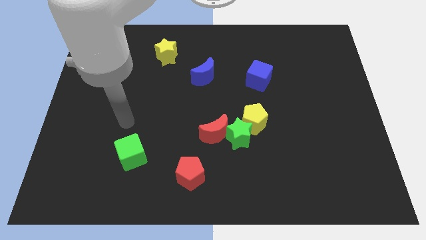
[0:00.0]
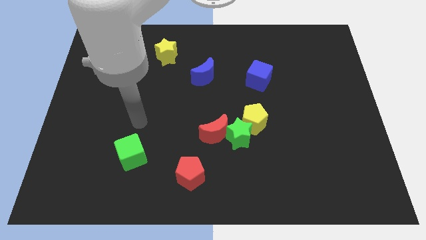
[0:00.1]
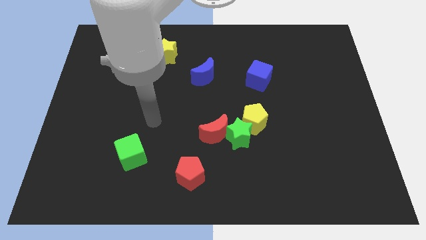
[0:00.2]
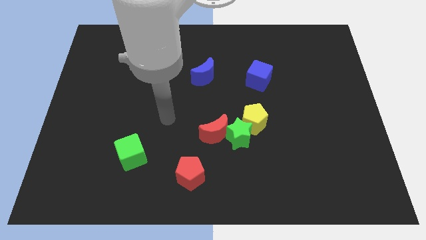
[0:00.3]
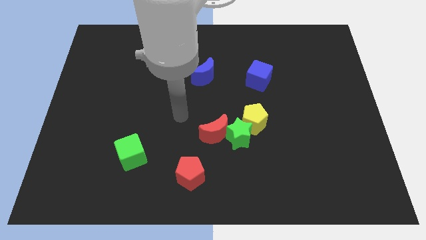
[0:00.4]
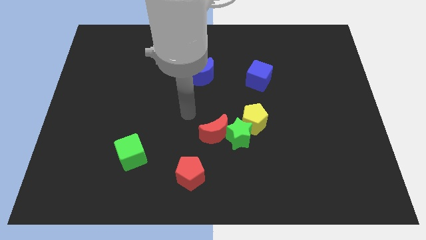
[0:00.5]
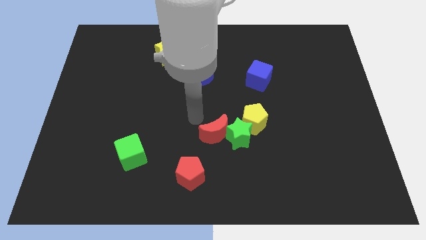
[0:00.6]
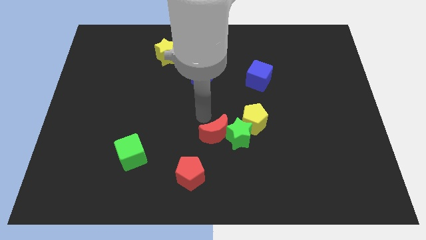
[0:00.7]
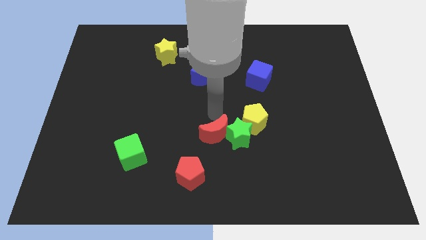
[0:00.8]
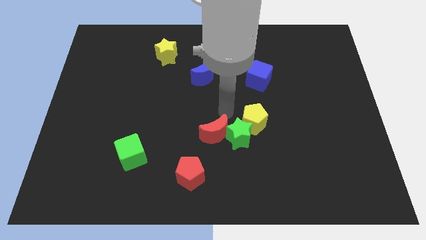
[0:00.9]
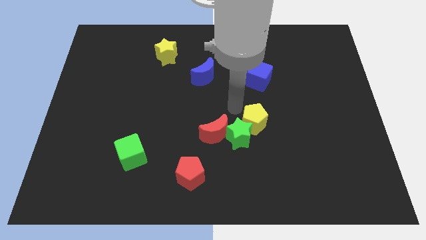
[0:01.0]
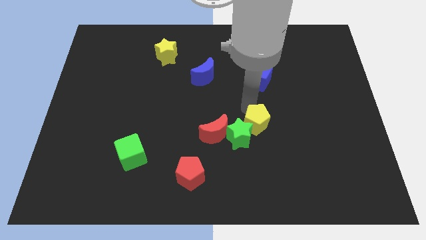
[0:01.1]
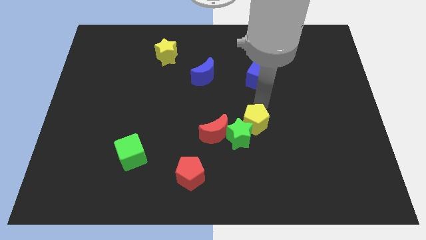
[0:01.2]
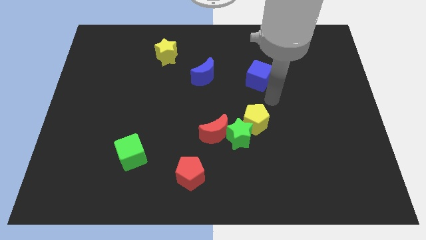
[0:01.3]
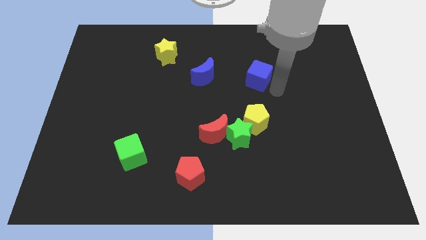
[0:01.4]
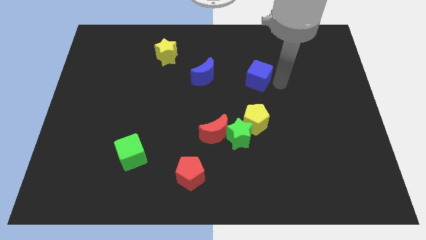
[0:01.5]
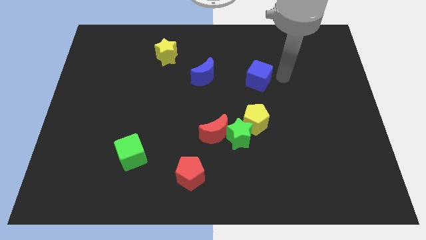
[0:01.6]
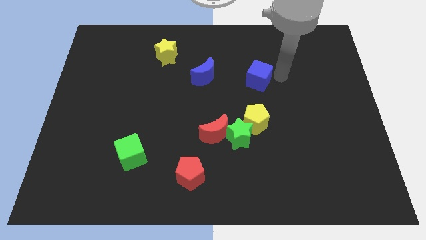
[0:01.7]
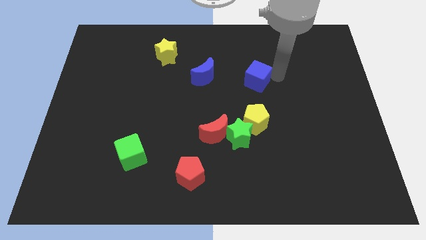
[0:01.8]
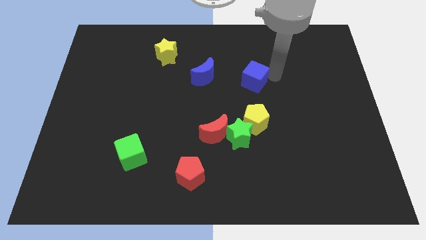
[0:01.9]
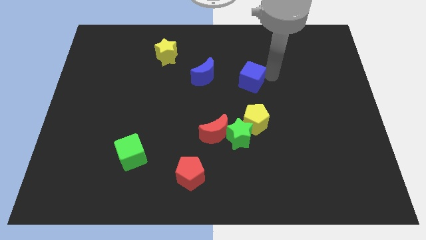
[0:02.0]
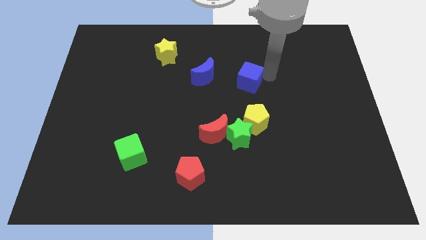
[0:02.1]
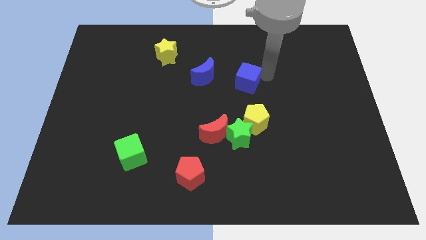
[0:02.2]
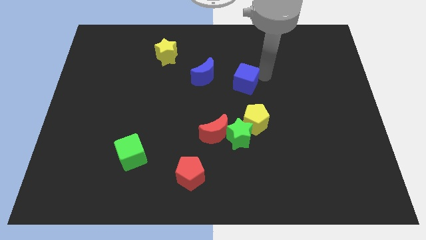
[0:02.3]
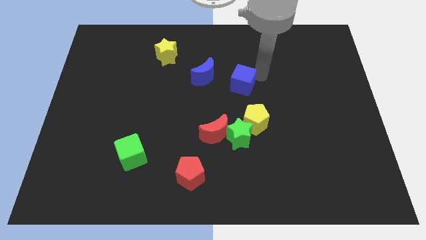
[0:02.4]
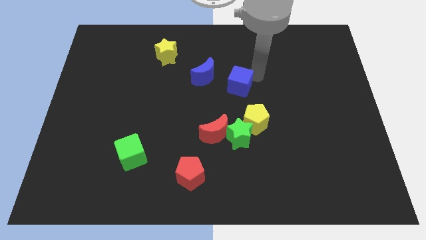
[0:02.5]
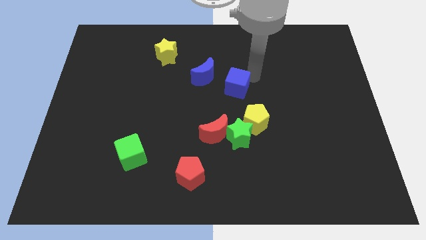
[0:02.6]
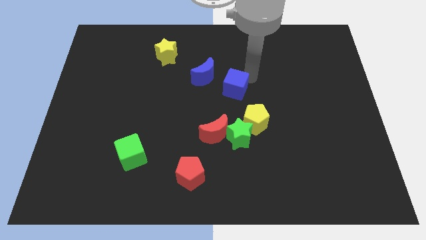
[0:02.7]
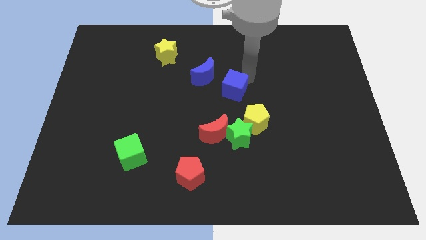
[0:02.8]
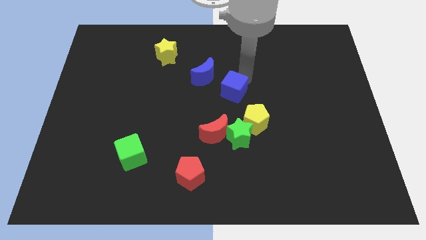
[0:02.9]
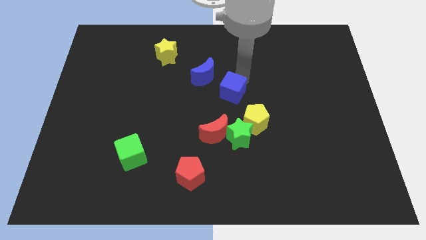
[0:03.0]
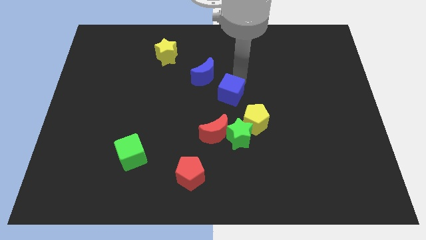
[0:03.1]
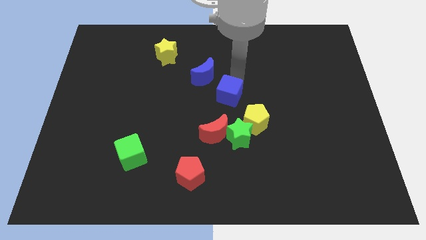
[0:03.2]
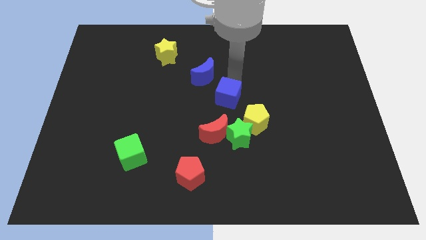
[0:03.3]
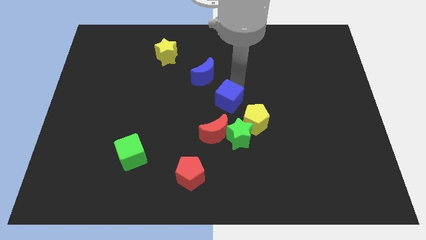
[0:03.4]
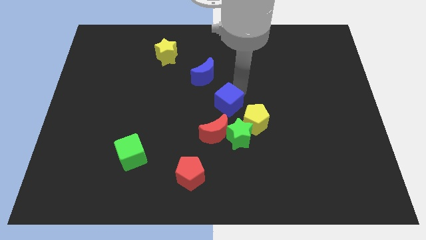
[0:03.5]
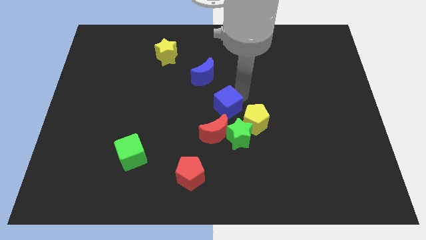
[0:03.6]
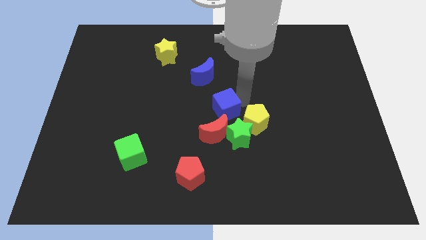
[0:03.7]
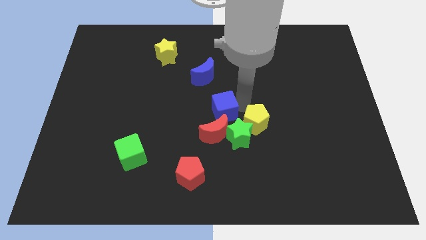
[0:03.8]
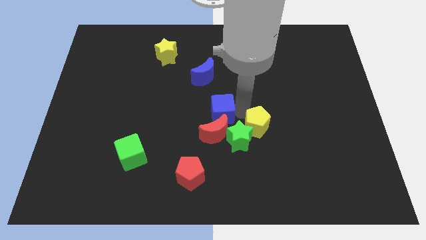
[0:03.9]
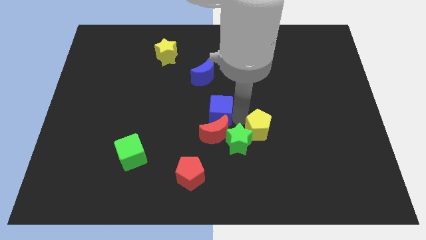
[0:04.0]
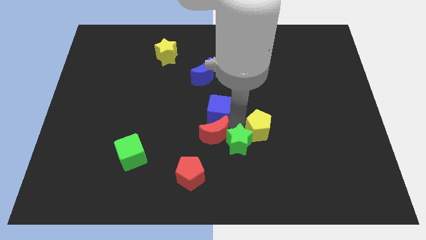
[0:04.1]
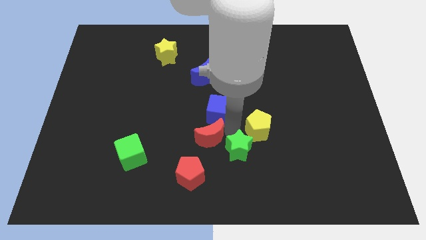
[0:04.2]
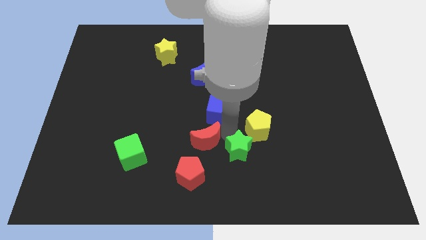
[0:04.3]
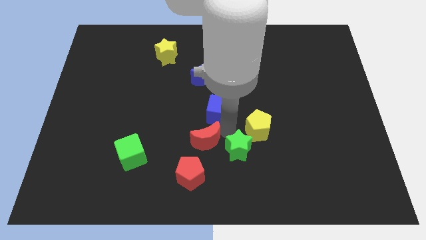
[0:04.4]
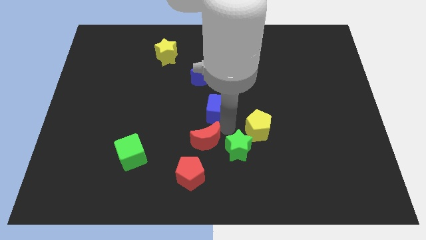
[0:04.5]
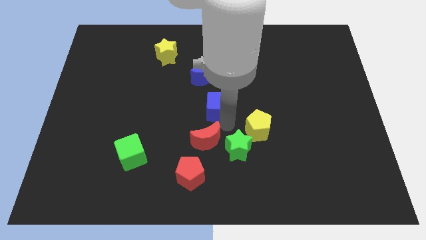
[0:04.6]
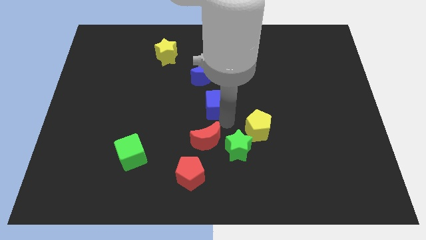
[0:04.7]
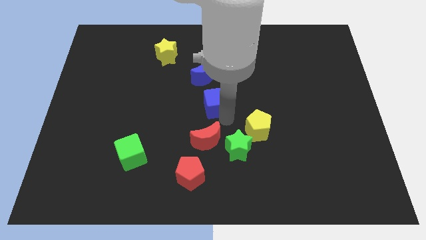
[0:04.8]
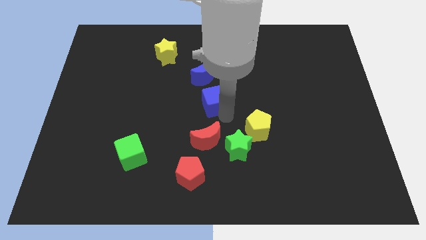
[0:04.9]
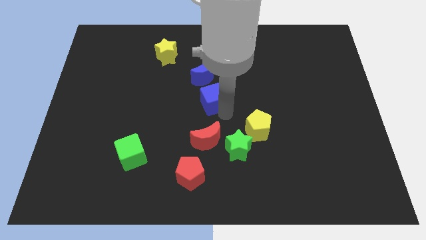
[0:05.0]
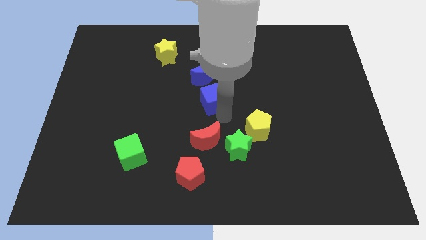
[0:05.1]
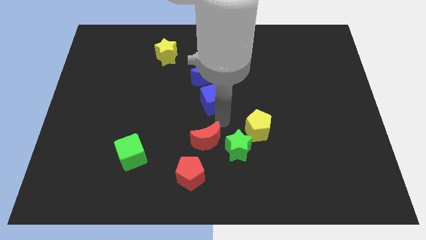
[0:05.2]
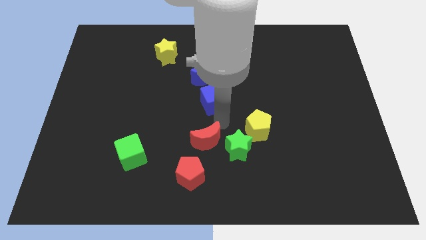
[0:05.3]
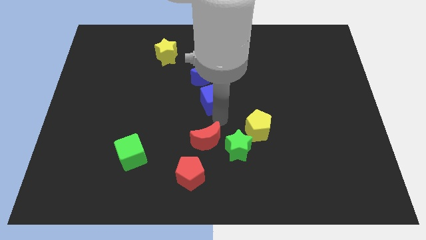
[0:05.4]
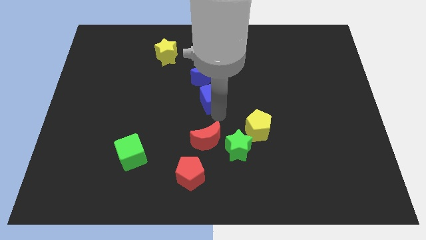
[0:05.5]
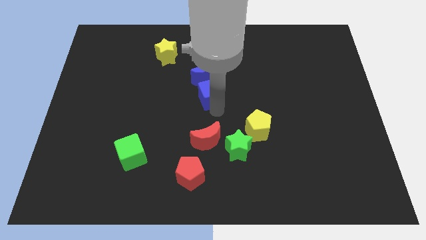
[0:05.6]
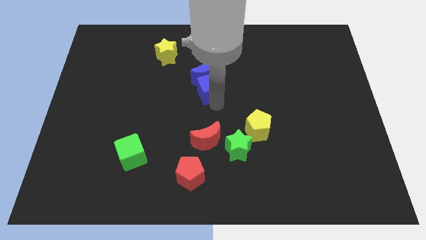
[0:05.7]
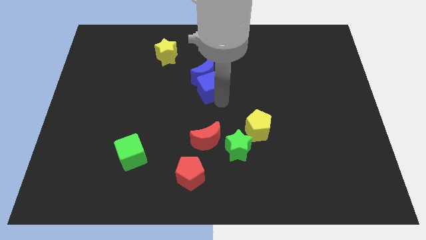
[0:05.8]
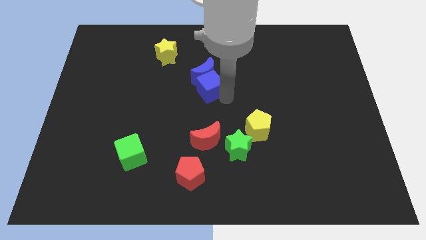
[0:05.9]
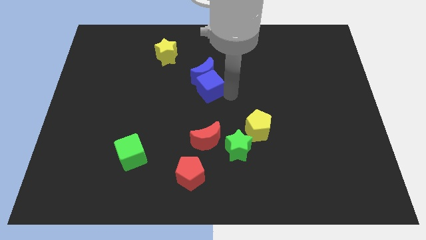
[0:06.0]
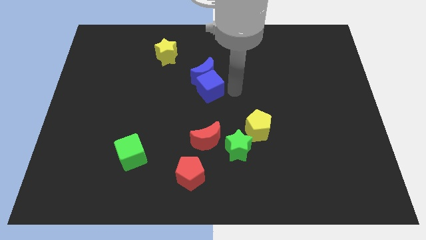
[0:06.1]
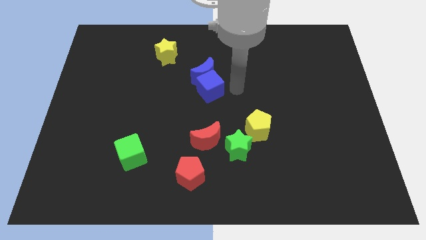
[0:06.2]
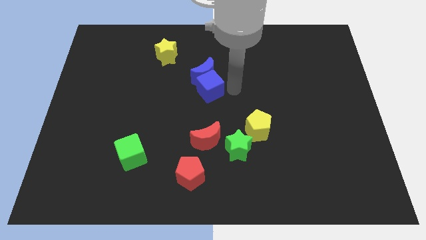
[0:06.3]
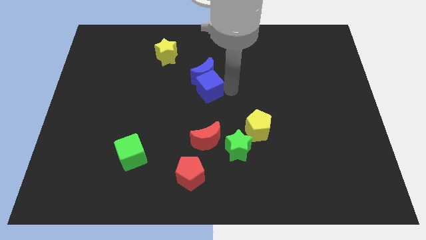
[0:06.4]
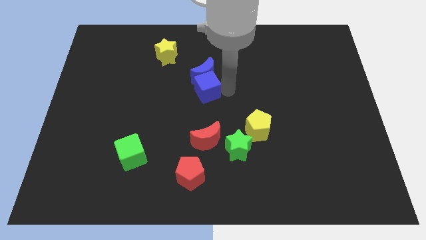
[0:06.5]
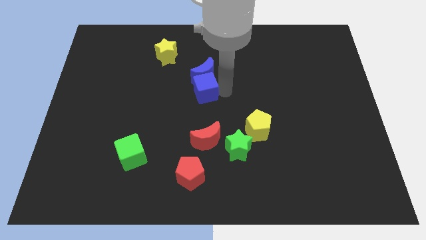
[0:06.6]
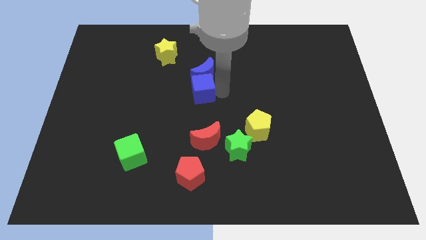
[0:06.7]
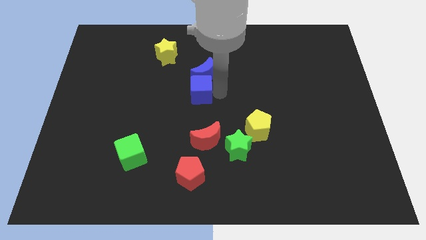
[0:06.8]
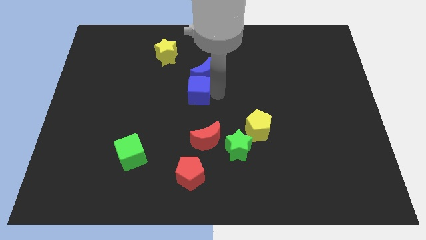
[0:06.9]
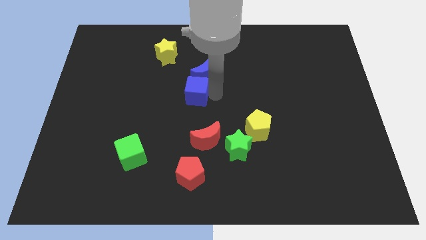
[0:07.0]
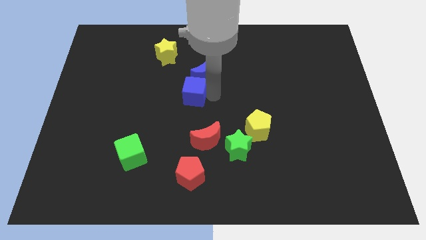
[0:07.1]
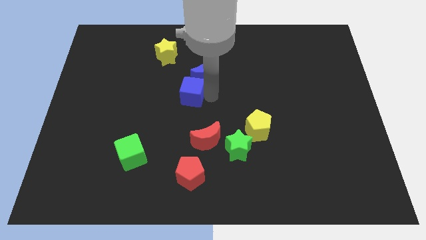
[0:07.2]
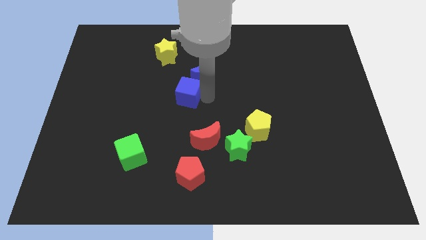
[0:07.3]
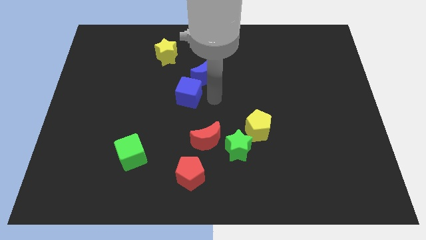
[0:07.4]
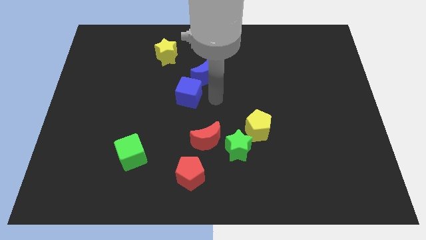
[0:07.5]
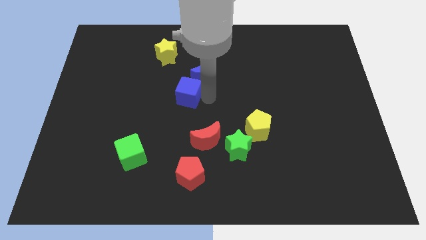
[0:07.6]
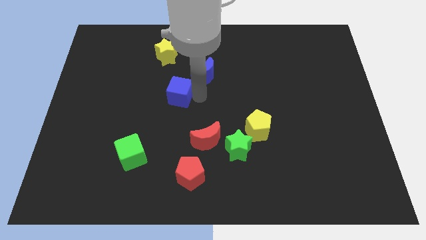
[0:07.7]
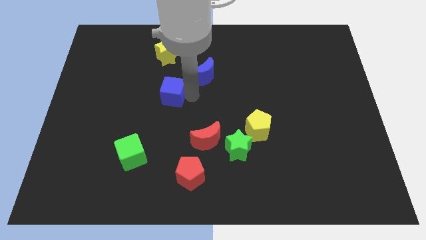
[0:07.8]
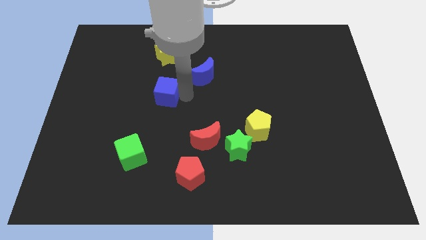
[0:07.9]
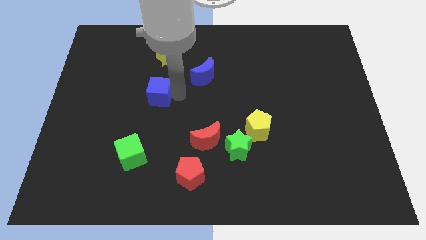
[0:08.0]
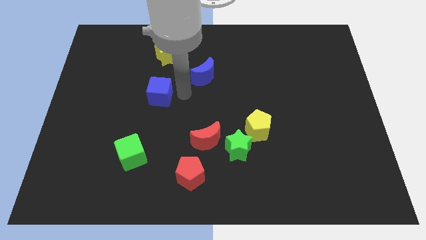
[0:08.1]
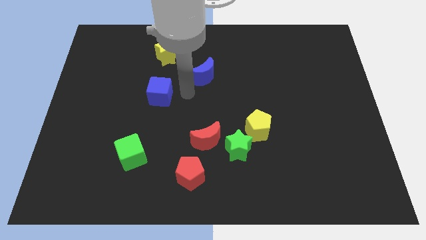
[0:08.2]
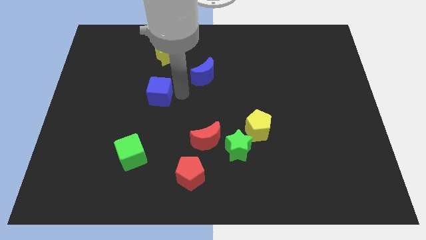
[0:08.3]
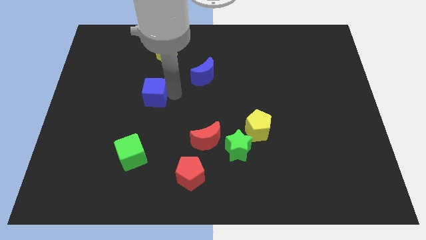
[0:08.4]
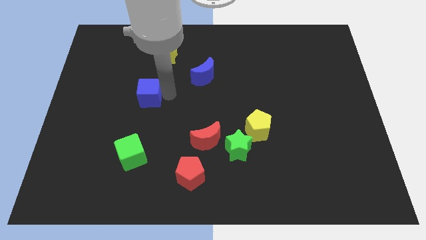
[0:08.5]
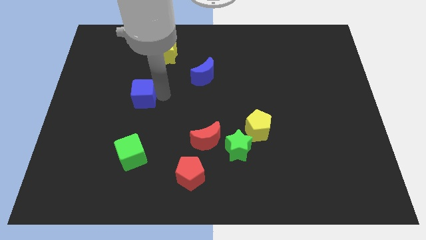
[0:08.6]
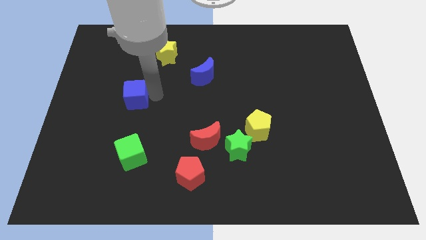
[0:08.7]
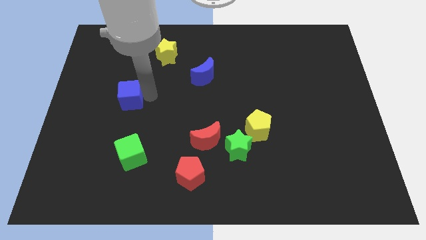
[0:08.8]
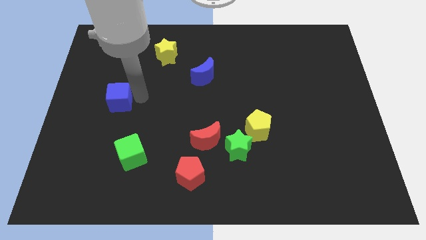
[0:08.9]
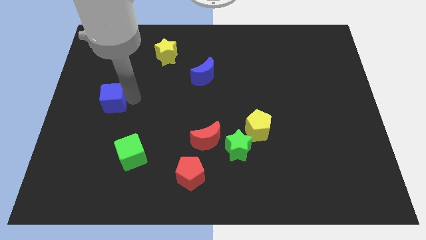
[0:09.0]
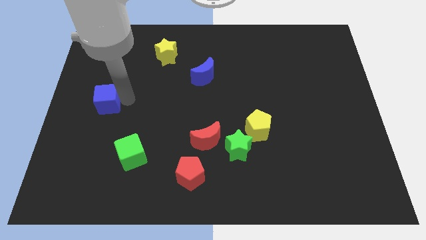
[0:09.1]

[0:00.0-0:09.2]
put the blue cube to the left side
